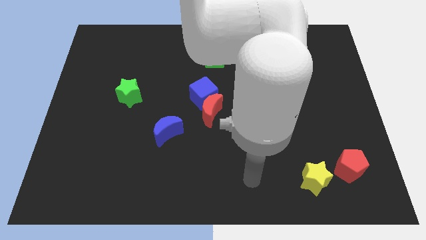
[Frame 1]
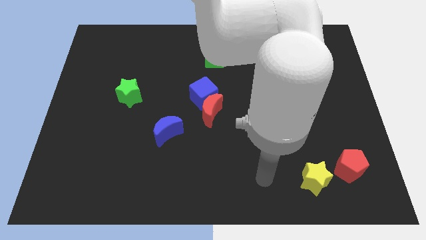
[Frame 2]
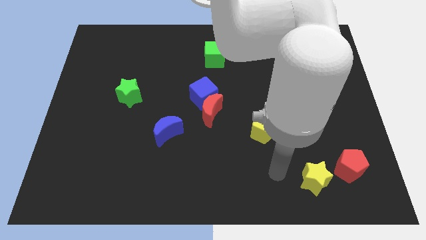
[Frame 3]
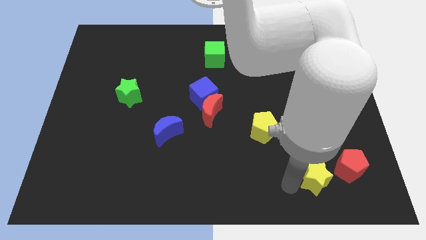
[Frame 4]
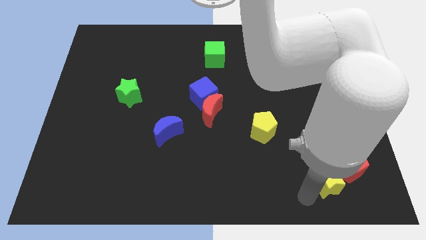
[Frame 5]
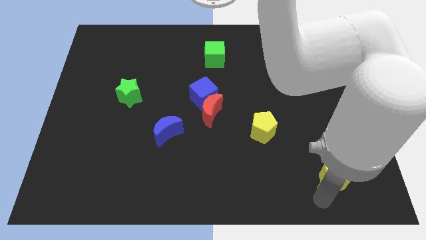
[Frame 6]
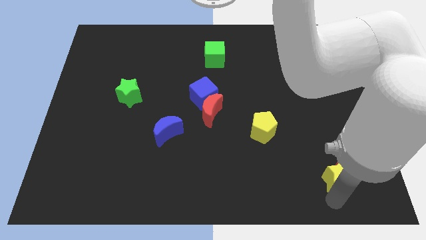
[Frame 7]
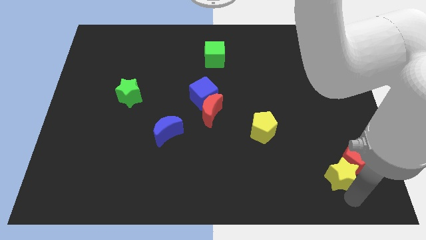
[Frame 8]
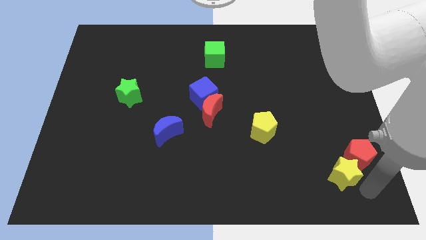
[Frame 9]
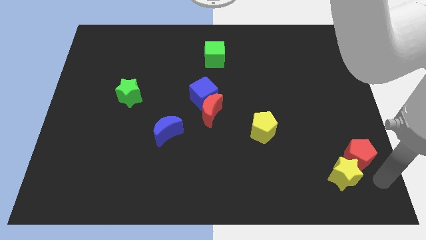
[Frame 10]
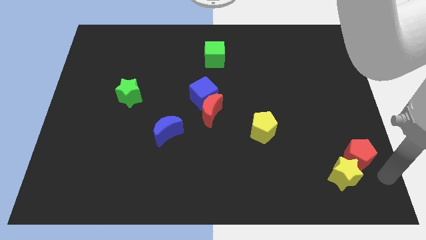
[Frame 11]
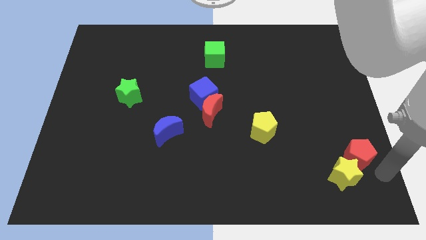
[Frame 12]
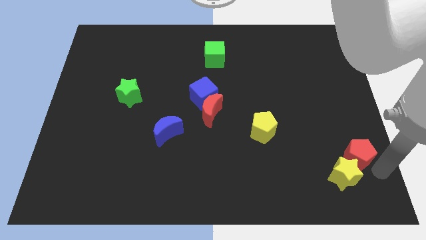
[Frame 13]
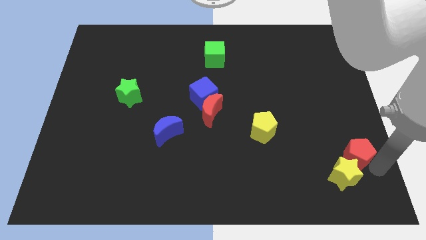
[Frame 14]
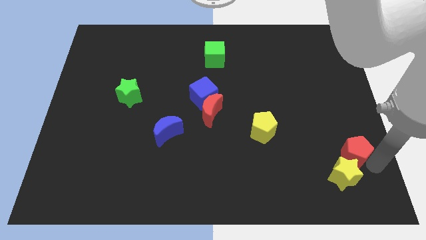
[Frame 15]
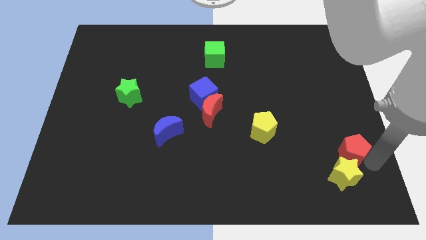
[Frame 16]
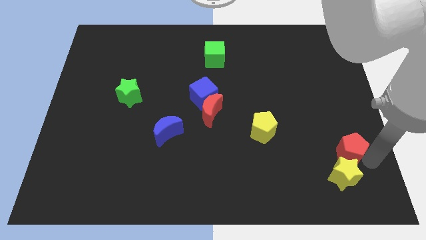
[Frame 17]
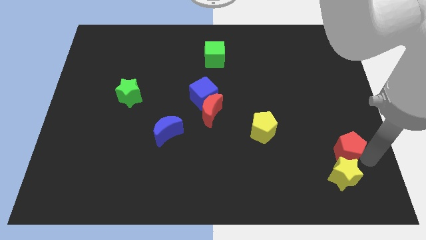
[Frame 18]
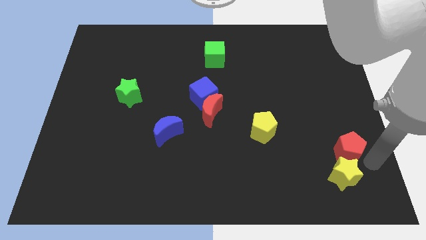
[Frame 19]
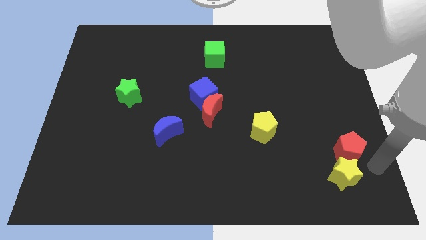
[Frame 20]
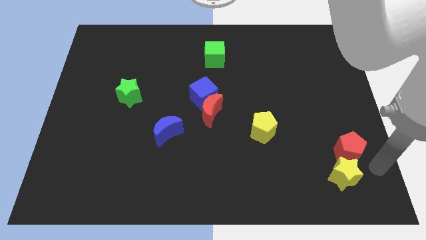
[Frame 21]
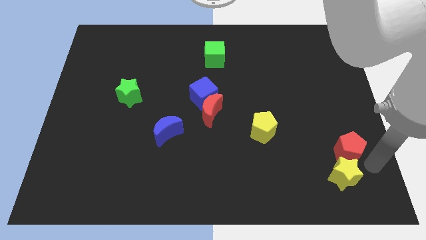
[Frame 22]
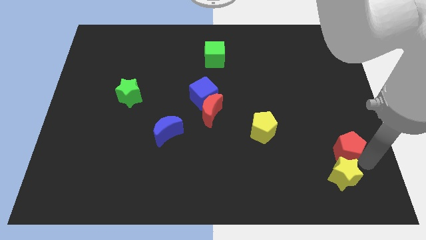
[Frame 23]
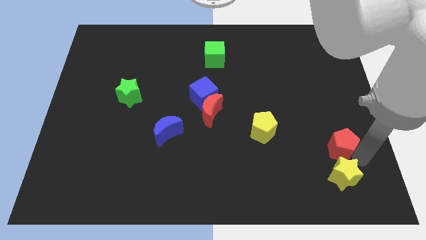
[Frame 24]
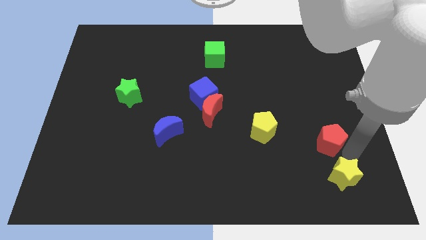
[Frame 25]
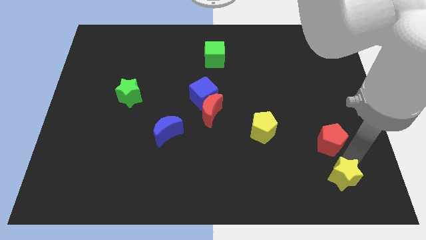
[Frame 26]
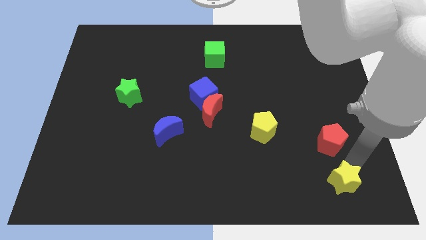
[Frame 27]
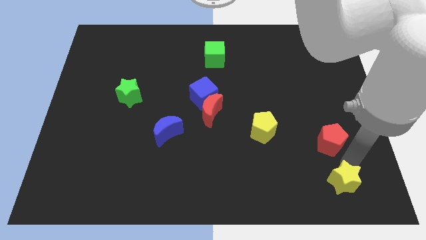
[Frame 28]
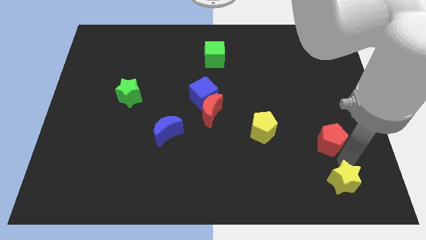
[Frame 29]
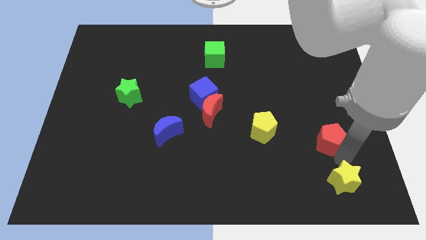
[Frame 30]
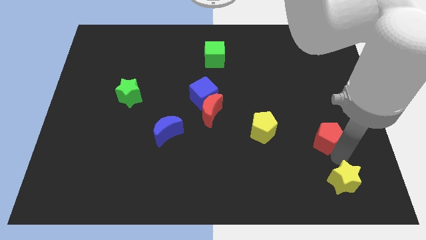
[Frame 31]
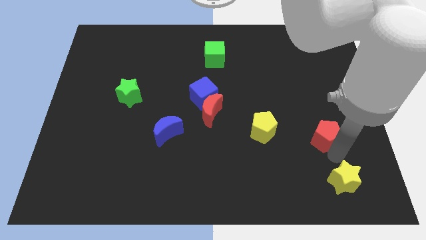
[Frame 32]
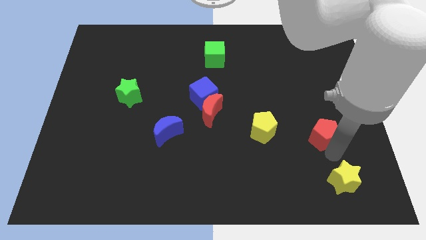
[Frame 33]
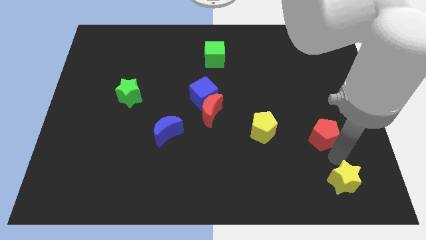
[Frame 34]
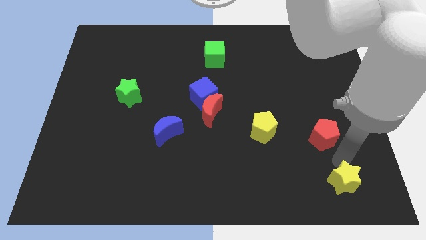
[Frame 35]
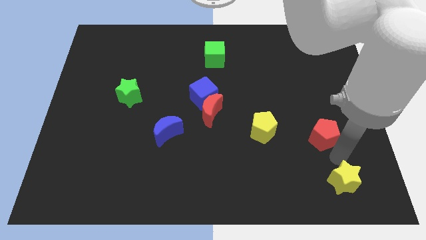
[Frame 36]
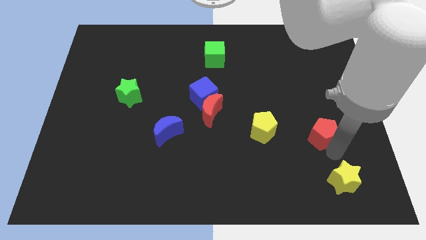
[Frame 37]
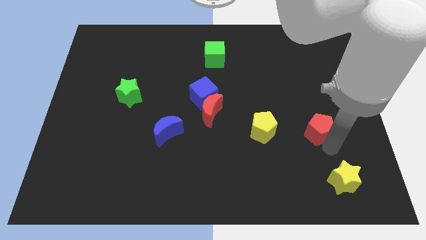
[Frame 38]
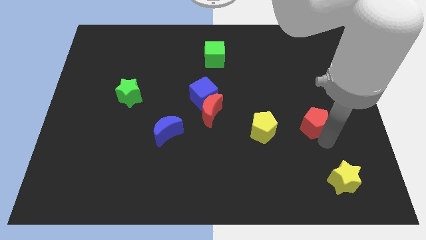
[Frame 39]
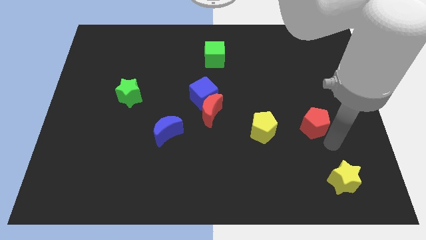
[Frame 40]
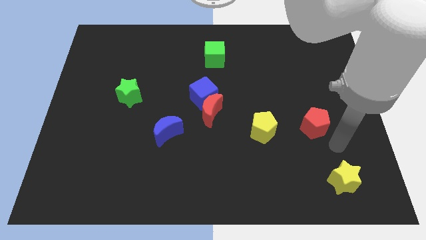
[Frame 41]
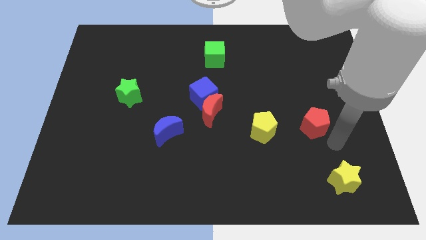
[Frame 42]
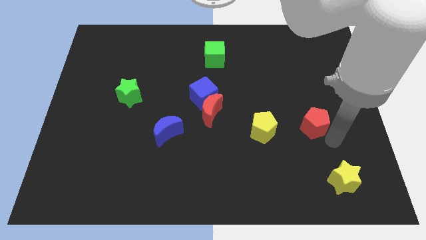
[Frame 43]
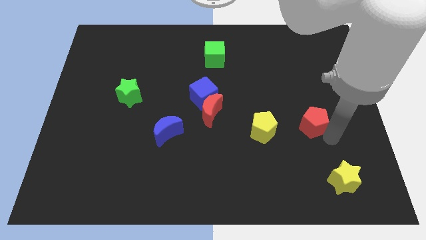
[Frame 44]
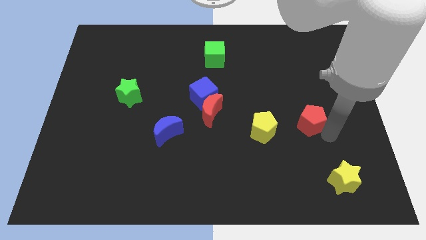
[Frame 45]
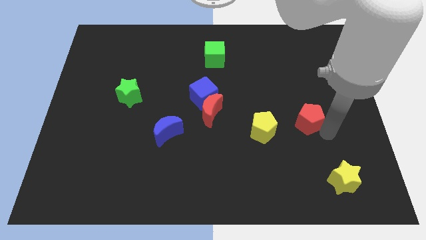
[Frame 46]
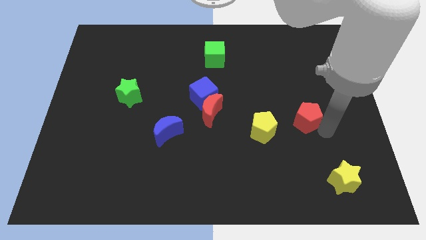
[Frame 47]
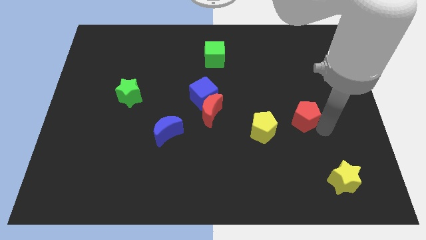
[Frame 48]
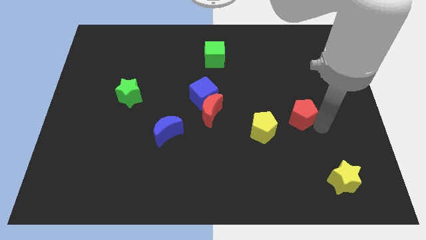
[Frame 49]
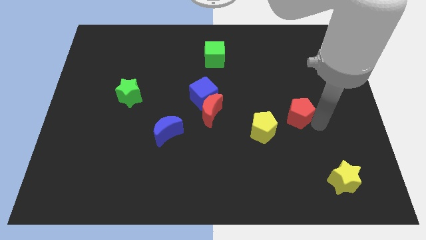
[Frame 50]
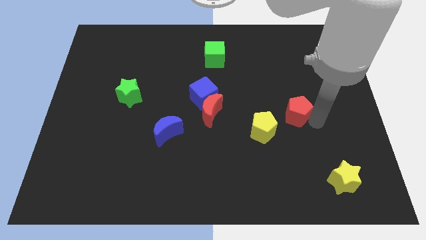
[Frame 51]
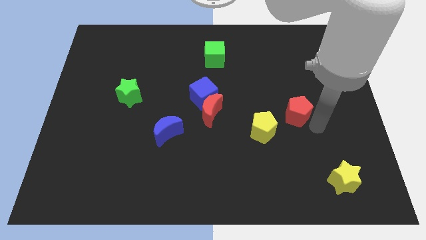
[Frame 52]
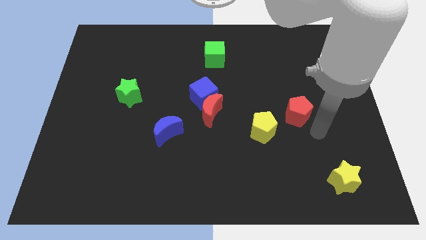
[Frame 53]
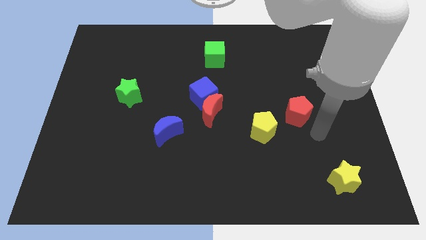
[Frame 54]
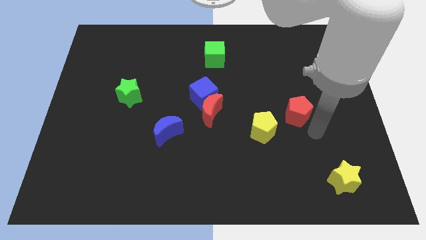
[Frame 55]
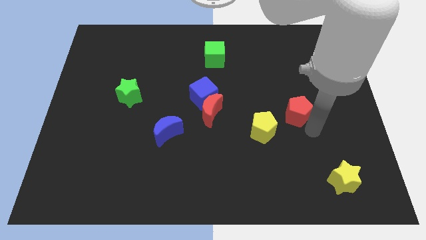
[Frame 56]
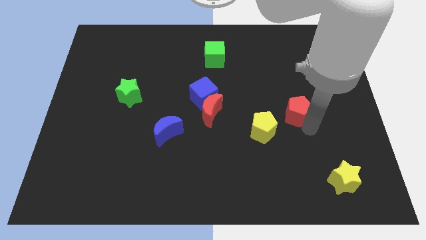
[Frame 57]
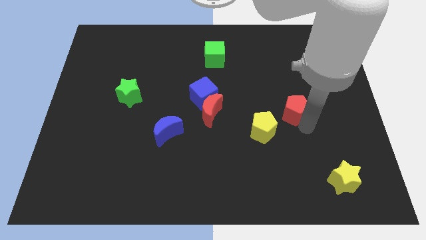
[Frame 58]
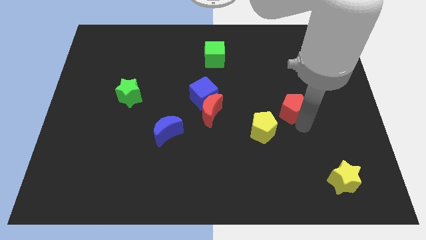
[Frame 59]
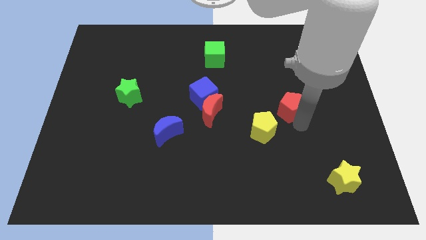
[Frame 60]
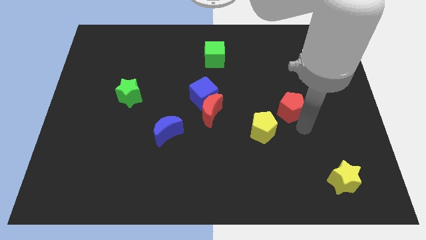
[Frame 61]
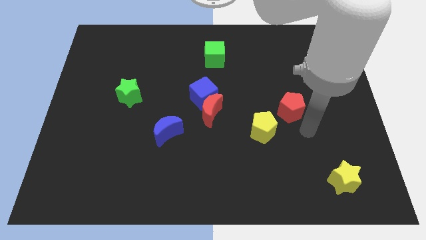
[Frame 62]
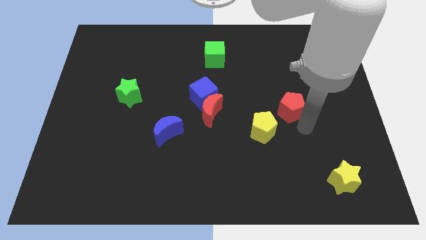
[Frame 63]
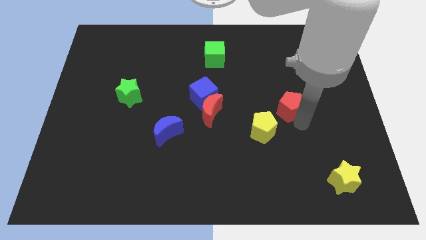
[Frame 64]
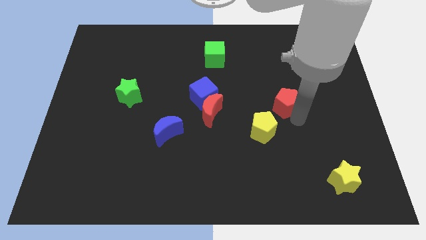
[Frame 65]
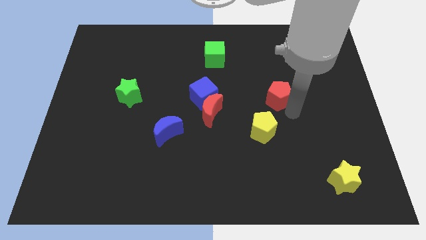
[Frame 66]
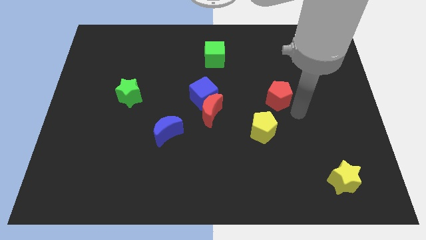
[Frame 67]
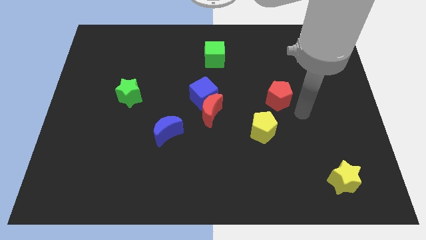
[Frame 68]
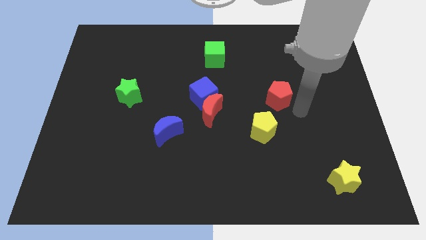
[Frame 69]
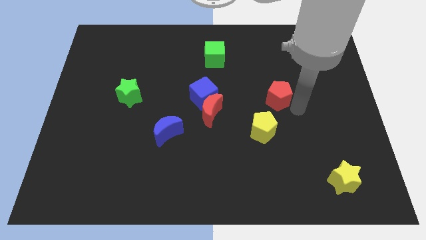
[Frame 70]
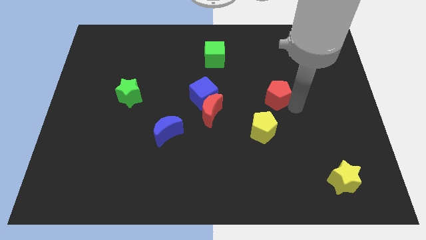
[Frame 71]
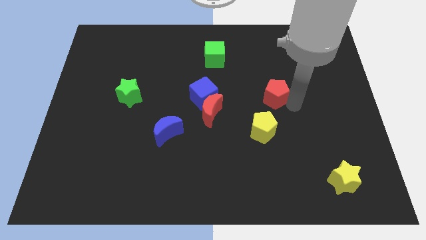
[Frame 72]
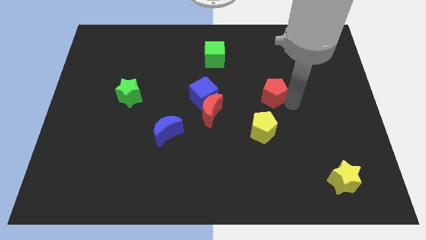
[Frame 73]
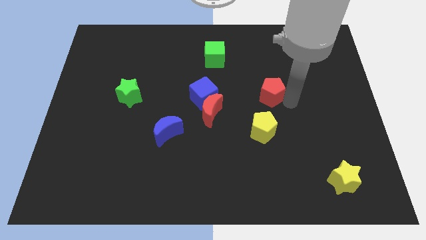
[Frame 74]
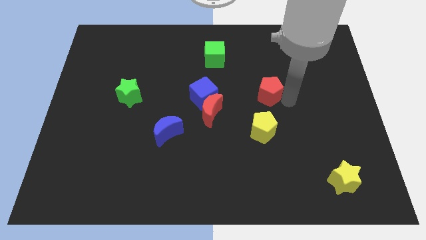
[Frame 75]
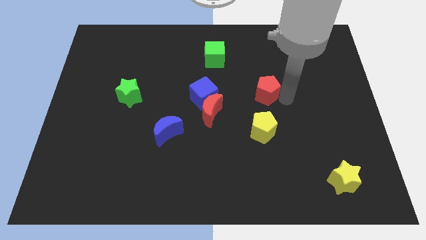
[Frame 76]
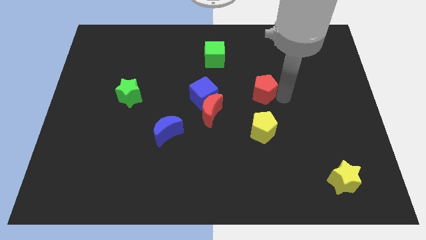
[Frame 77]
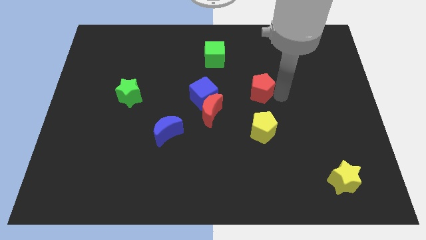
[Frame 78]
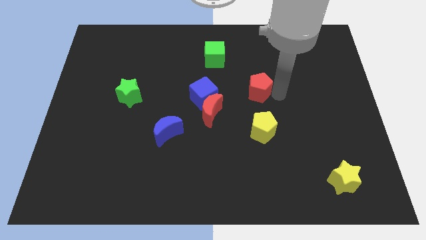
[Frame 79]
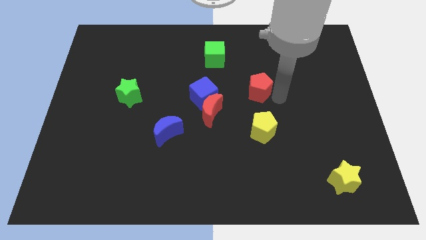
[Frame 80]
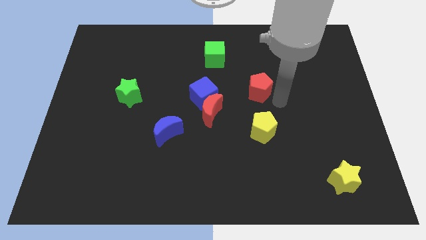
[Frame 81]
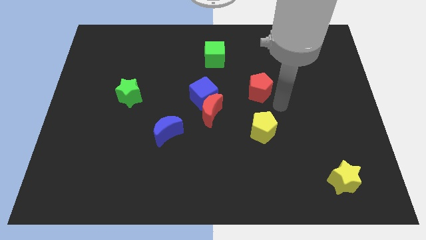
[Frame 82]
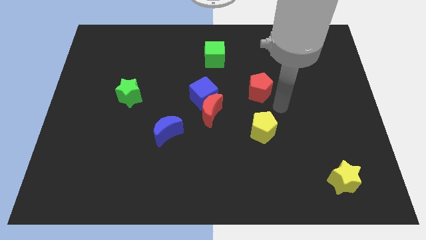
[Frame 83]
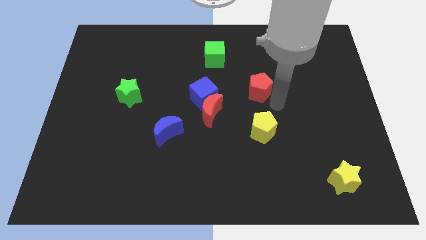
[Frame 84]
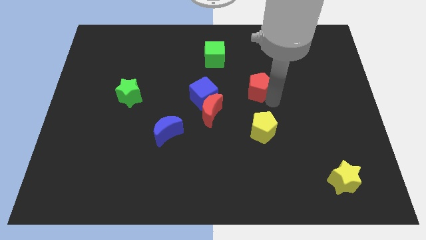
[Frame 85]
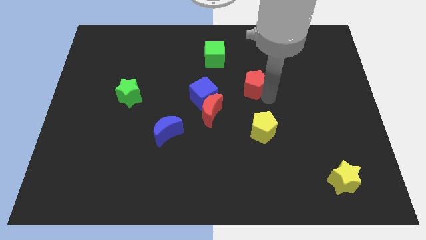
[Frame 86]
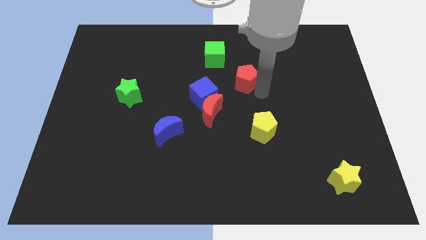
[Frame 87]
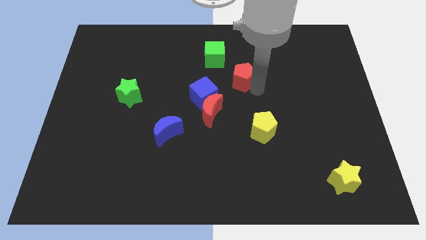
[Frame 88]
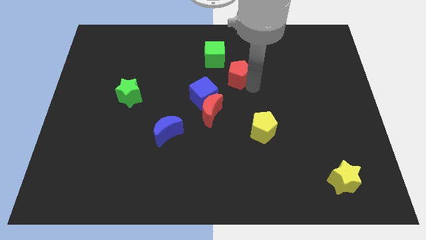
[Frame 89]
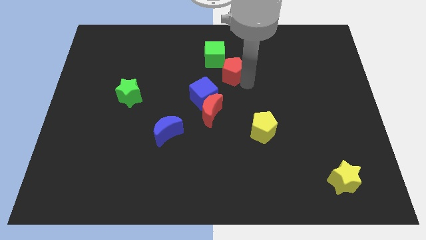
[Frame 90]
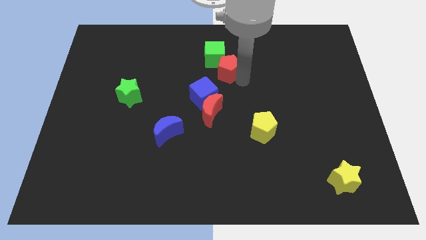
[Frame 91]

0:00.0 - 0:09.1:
move the red pentagon next to the green cube
